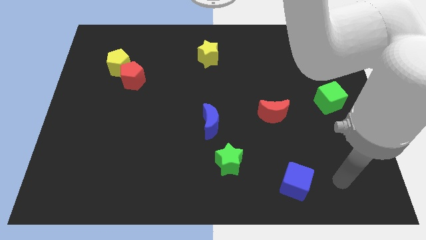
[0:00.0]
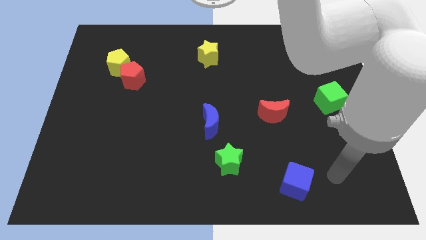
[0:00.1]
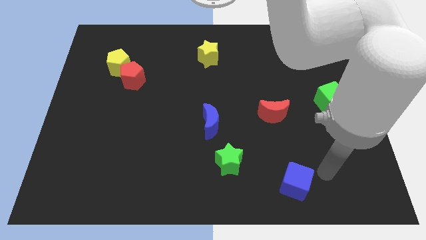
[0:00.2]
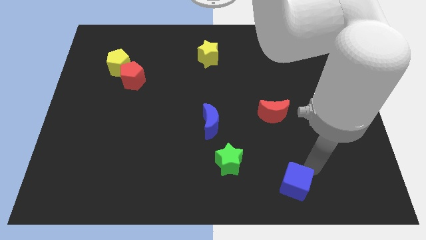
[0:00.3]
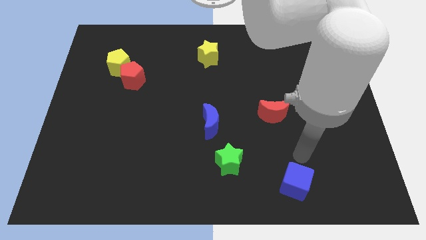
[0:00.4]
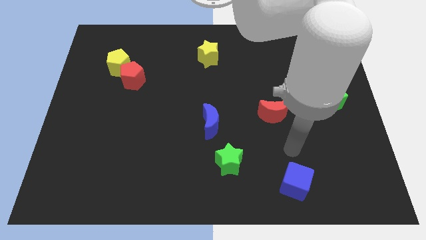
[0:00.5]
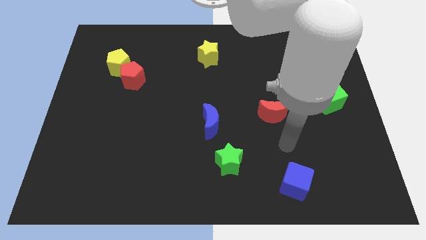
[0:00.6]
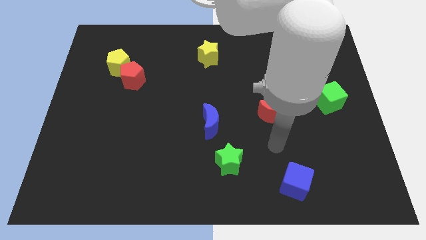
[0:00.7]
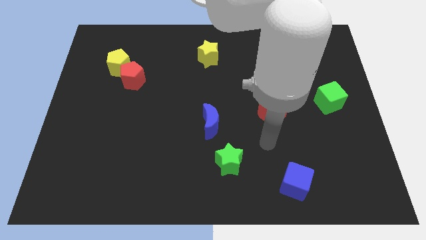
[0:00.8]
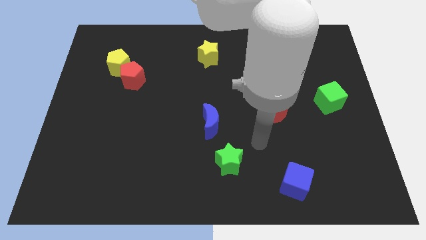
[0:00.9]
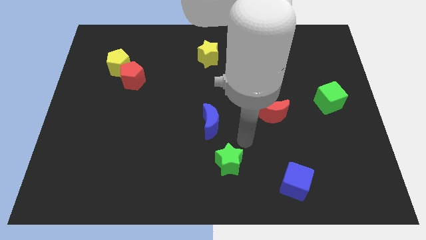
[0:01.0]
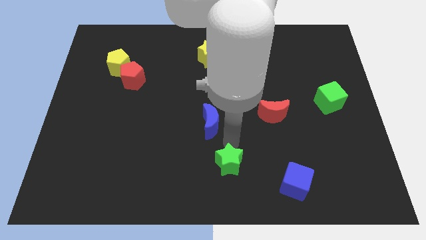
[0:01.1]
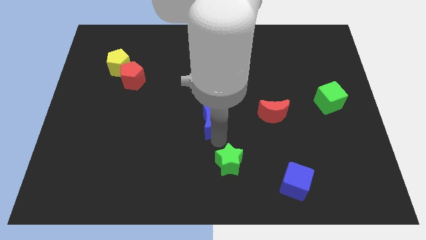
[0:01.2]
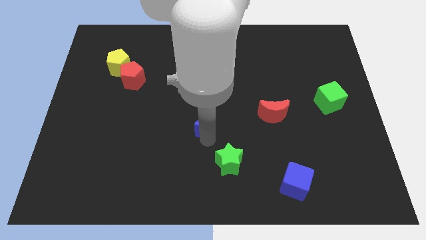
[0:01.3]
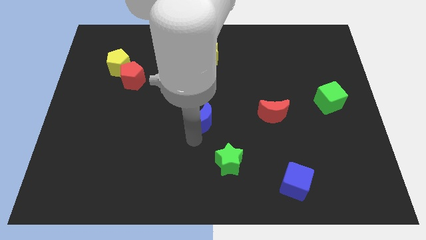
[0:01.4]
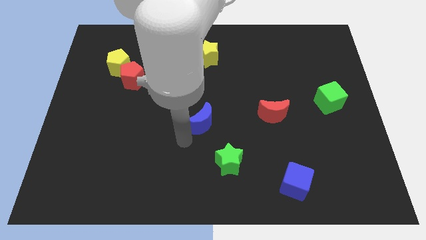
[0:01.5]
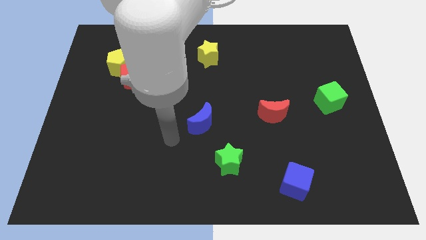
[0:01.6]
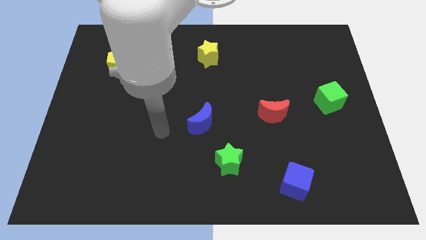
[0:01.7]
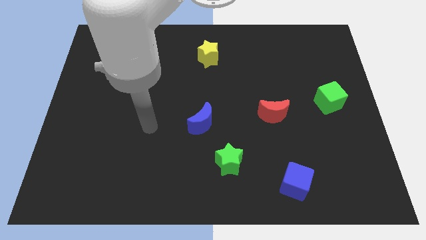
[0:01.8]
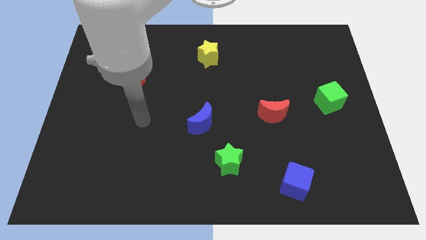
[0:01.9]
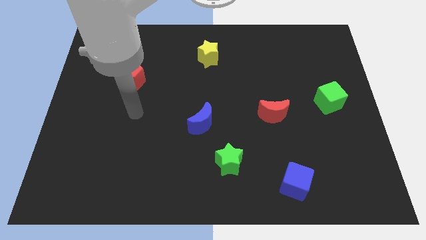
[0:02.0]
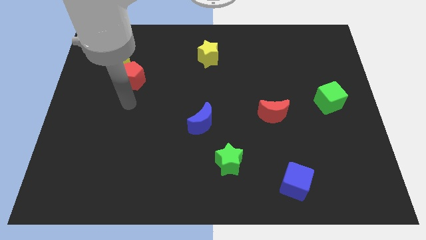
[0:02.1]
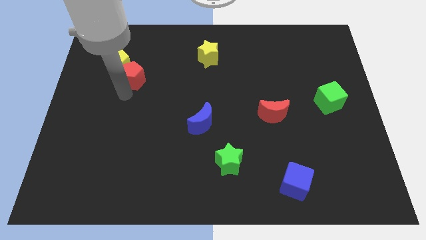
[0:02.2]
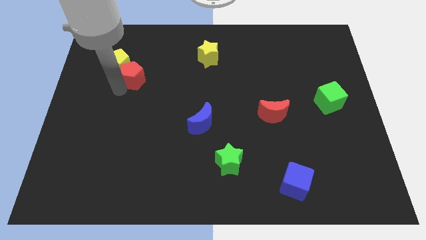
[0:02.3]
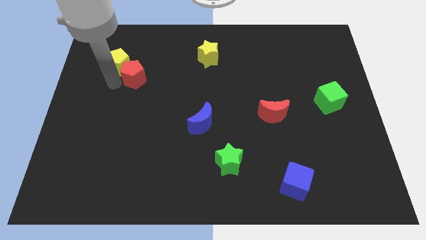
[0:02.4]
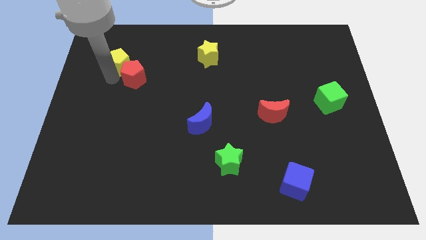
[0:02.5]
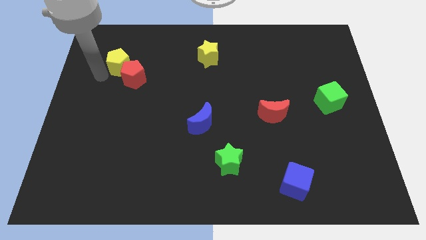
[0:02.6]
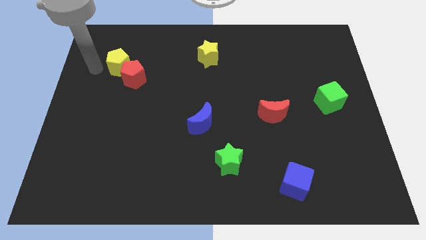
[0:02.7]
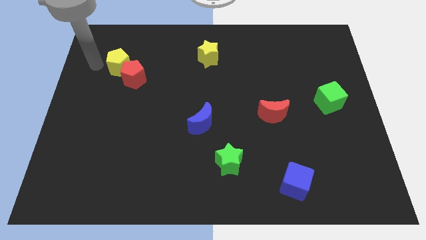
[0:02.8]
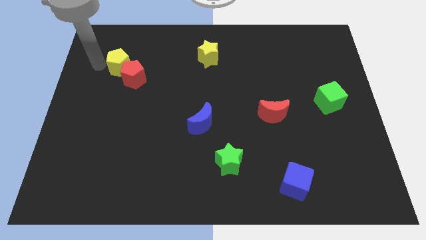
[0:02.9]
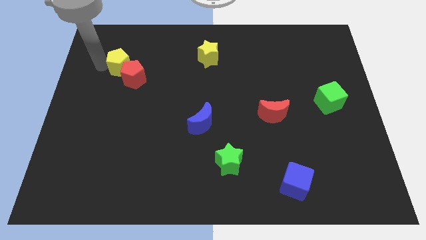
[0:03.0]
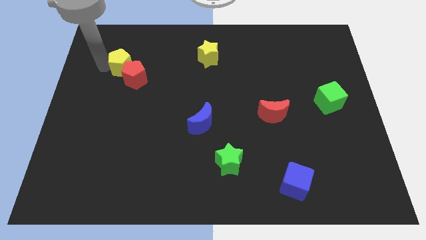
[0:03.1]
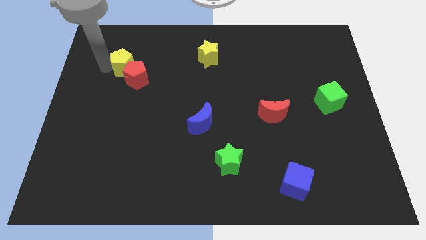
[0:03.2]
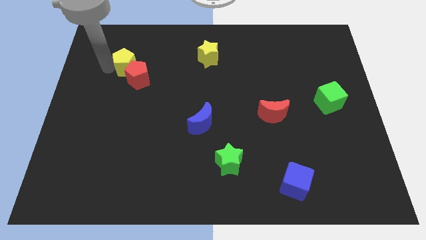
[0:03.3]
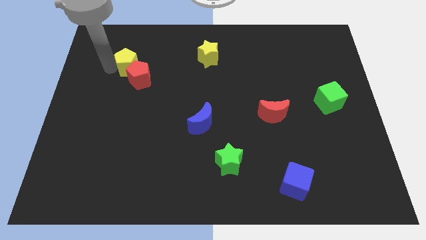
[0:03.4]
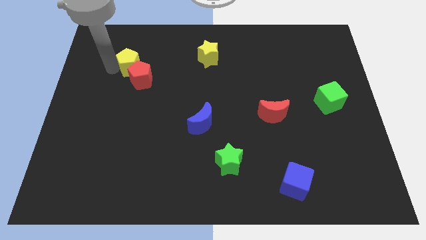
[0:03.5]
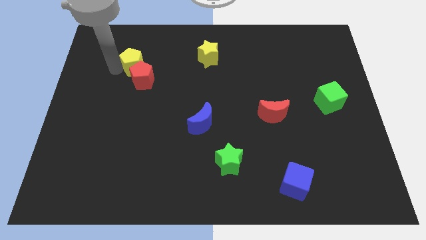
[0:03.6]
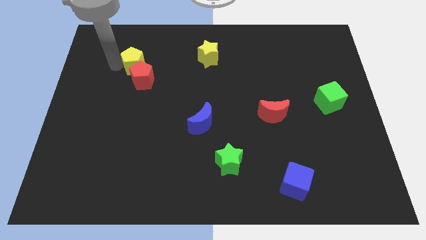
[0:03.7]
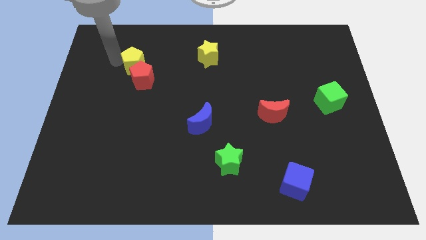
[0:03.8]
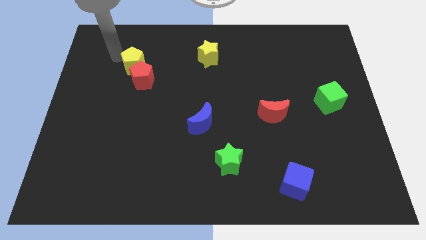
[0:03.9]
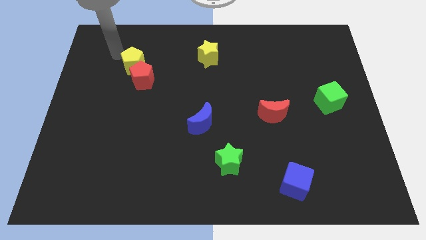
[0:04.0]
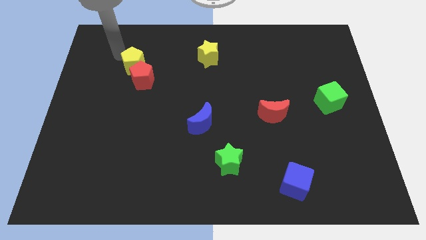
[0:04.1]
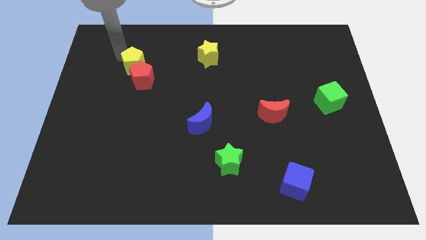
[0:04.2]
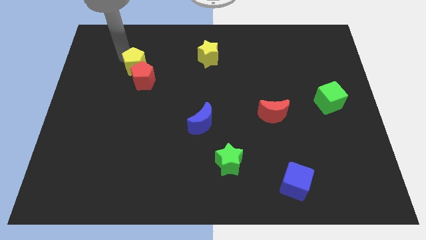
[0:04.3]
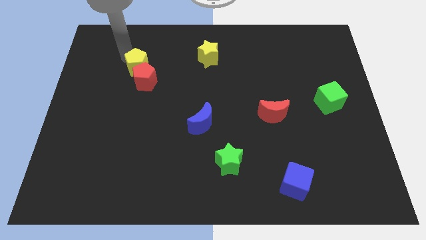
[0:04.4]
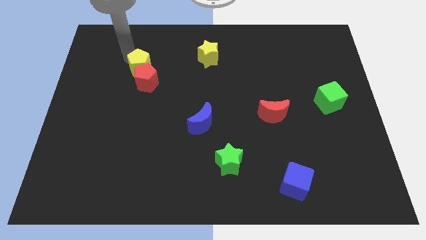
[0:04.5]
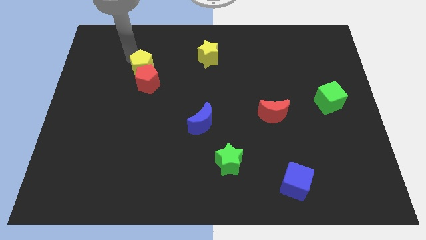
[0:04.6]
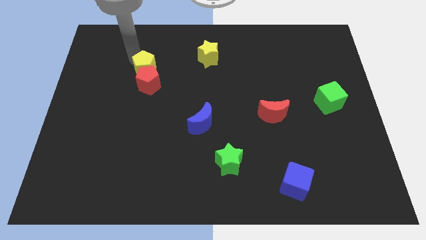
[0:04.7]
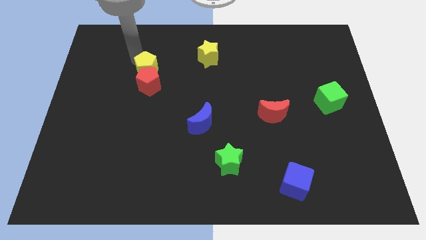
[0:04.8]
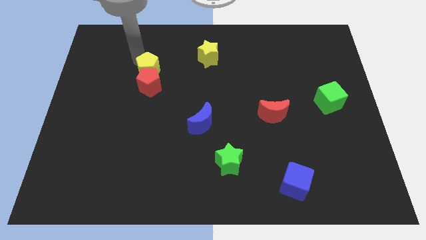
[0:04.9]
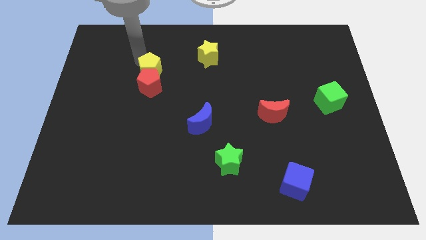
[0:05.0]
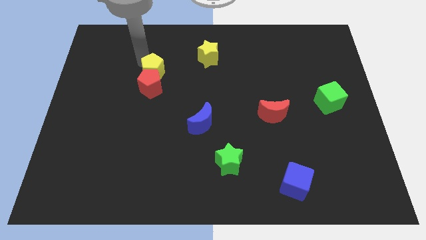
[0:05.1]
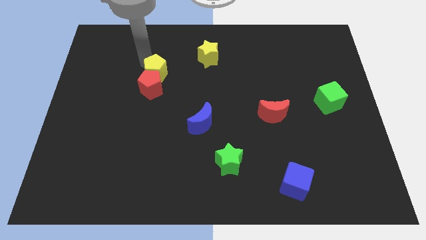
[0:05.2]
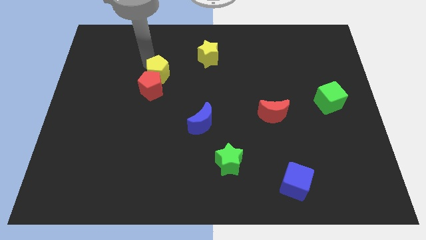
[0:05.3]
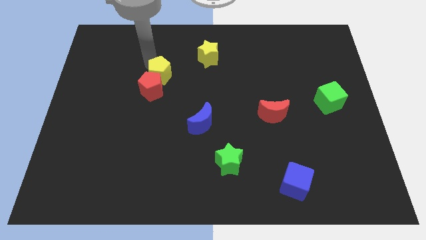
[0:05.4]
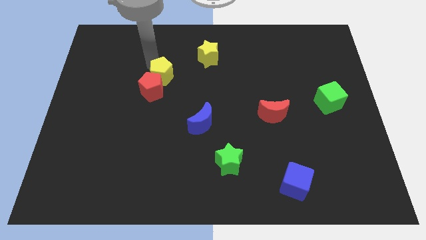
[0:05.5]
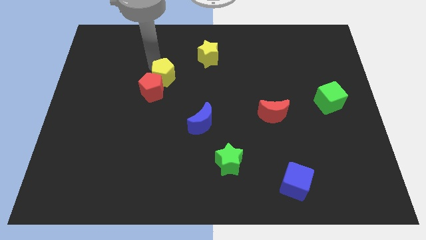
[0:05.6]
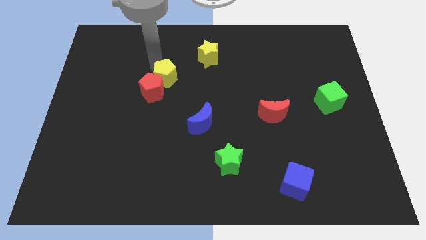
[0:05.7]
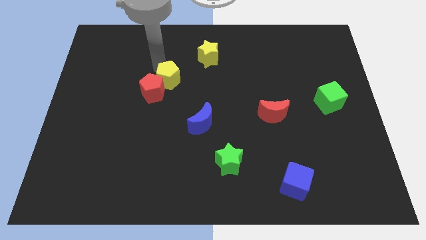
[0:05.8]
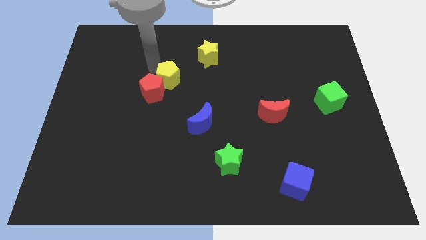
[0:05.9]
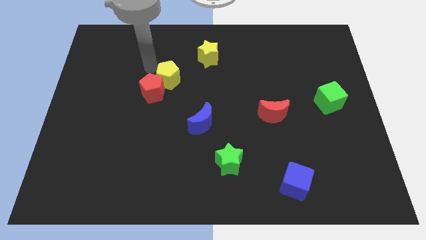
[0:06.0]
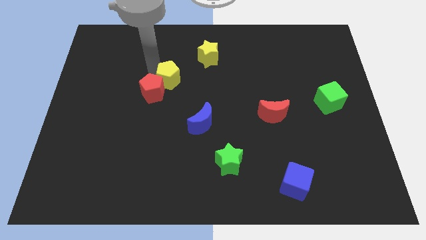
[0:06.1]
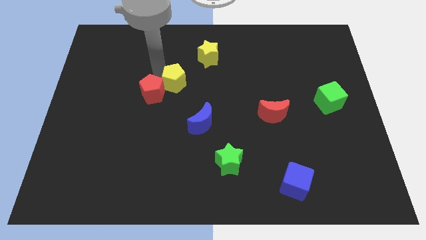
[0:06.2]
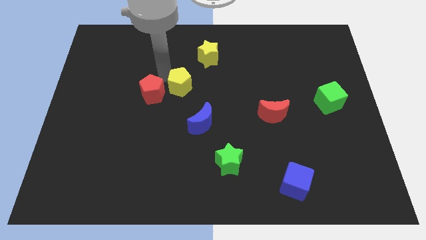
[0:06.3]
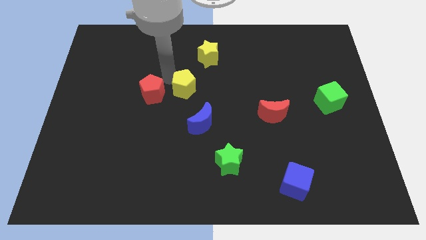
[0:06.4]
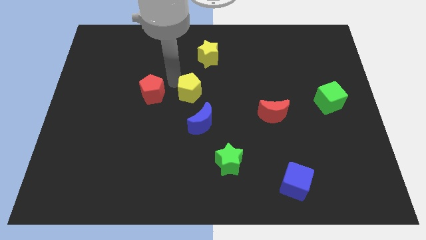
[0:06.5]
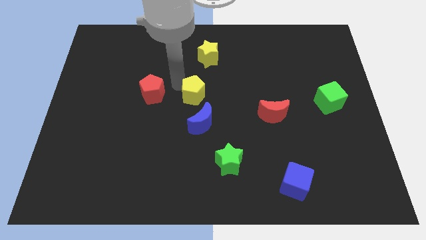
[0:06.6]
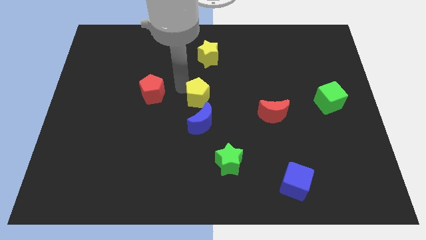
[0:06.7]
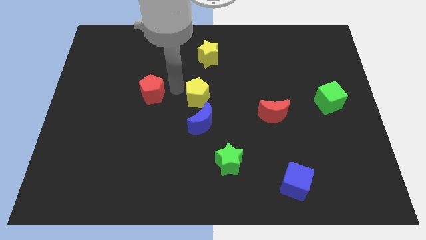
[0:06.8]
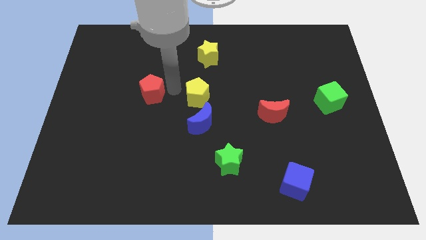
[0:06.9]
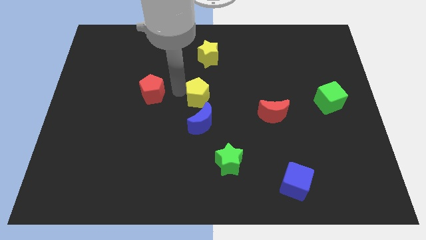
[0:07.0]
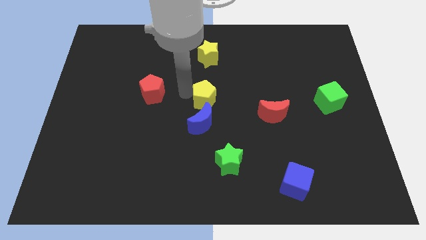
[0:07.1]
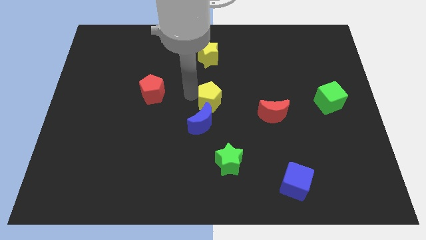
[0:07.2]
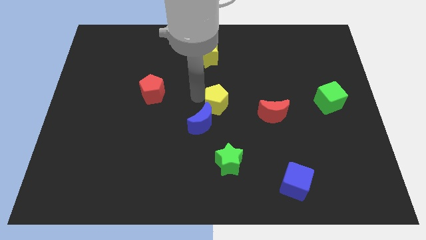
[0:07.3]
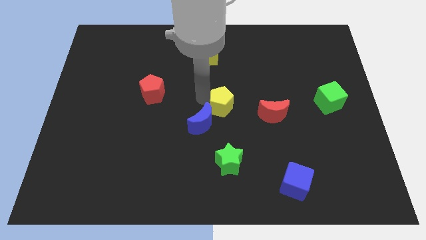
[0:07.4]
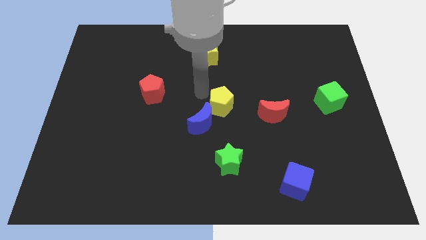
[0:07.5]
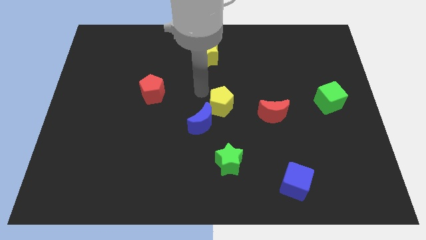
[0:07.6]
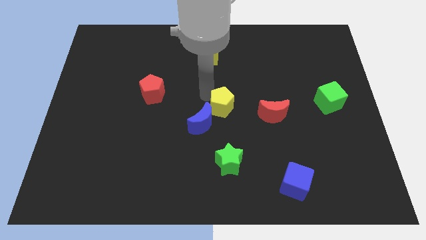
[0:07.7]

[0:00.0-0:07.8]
slide the yellow pentagon right of the blue moon
